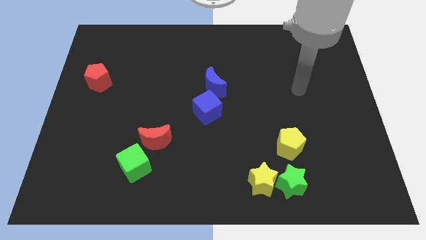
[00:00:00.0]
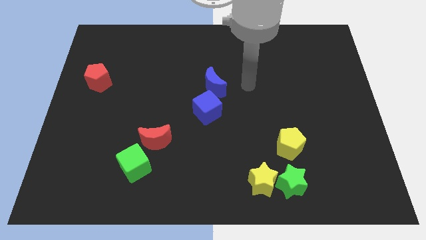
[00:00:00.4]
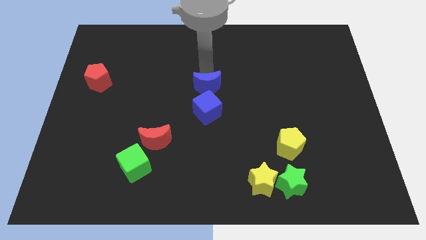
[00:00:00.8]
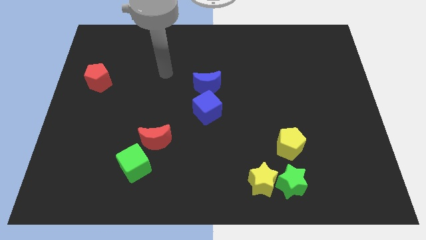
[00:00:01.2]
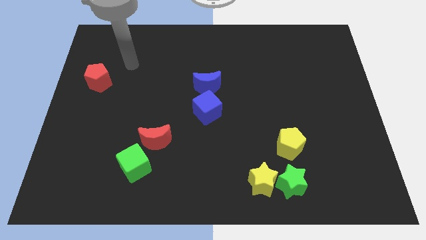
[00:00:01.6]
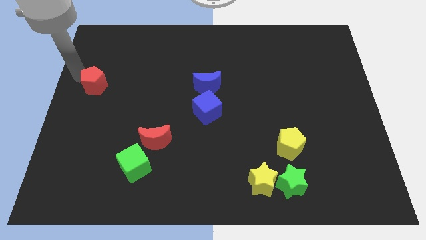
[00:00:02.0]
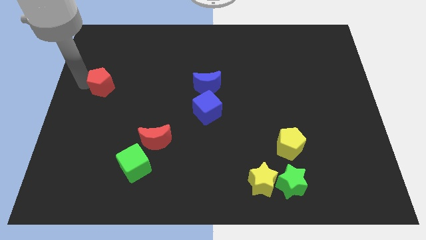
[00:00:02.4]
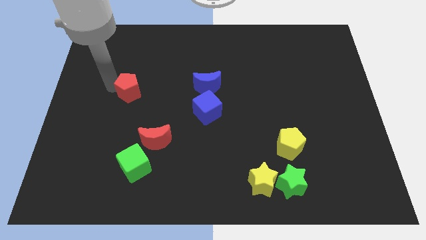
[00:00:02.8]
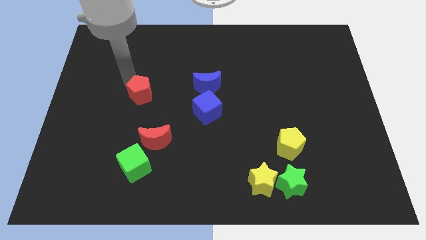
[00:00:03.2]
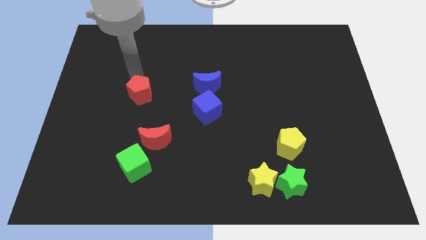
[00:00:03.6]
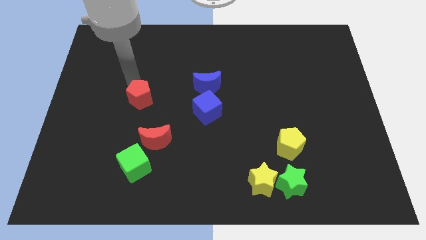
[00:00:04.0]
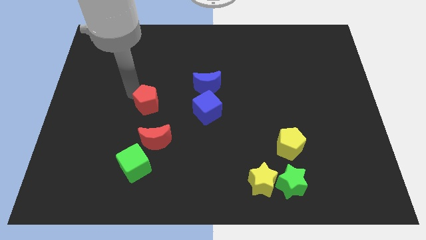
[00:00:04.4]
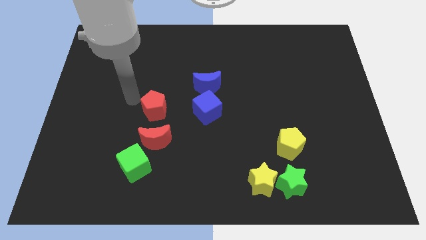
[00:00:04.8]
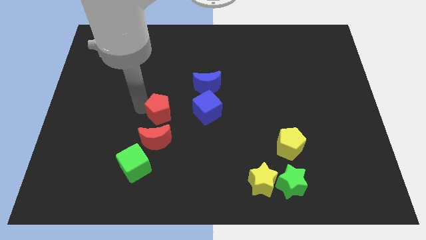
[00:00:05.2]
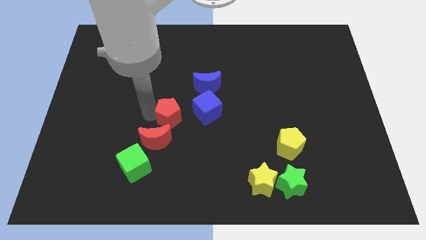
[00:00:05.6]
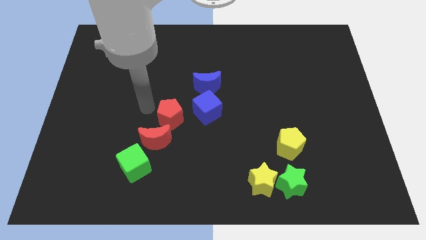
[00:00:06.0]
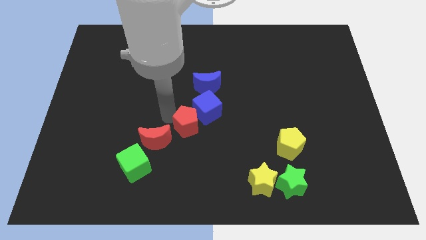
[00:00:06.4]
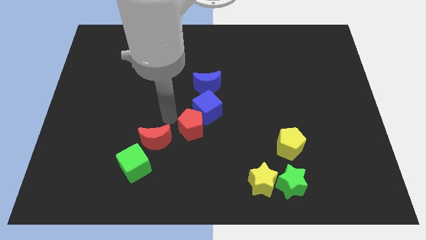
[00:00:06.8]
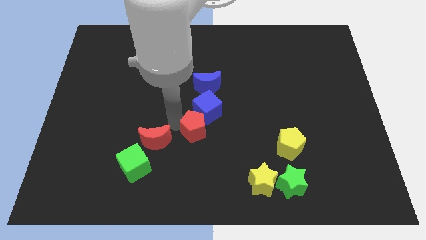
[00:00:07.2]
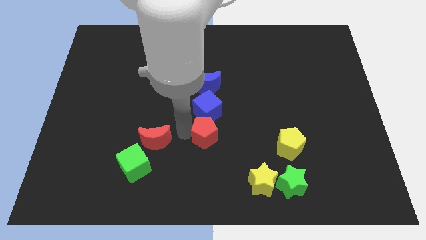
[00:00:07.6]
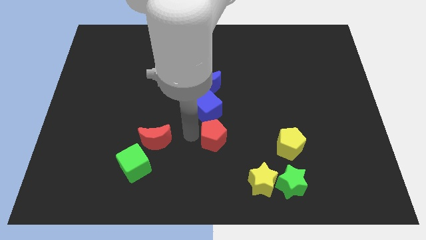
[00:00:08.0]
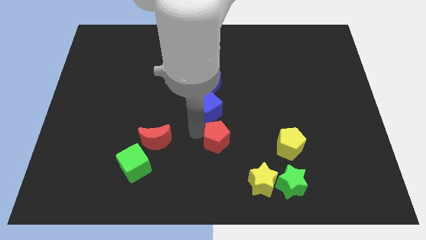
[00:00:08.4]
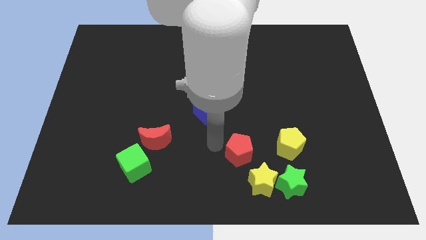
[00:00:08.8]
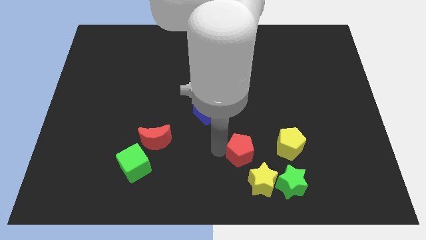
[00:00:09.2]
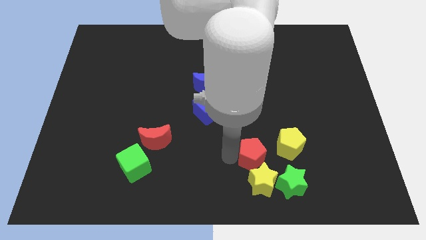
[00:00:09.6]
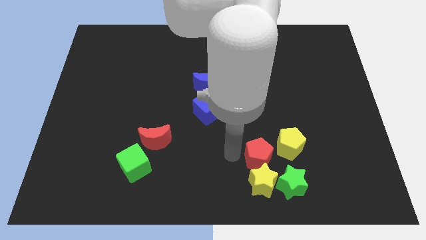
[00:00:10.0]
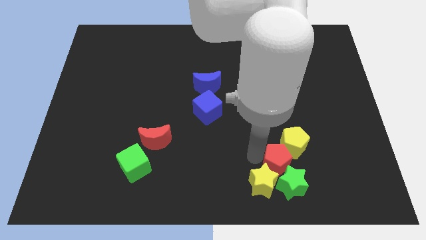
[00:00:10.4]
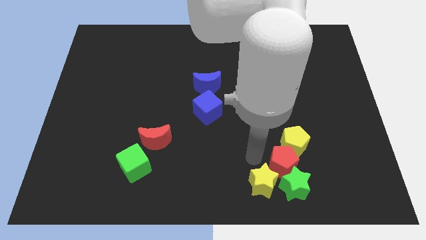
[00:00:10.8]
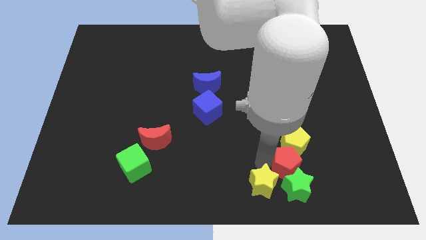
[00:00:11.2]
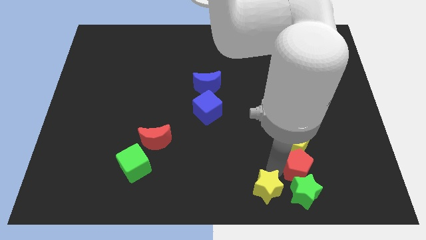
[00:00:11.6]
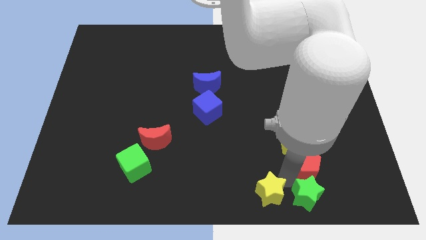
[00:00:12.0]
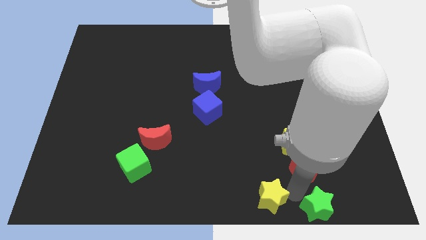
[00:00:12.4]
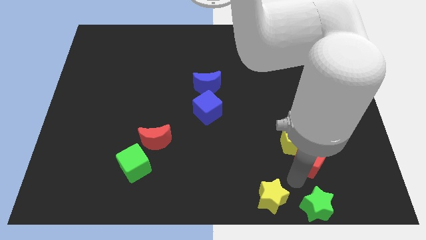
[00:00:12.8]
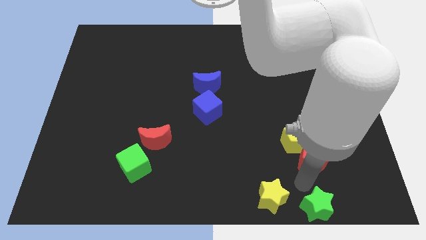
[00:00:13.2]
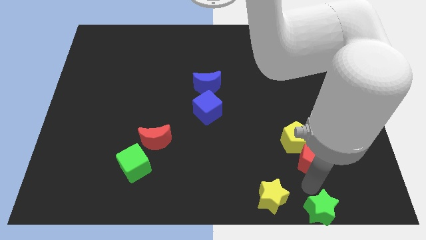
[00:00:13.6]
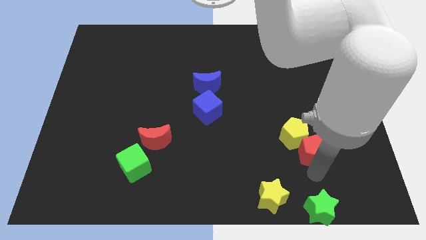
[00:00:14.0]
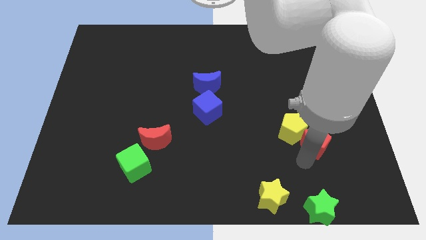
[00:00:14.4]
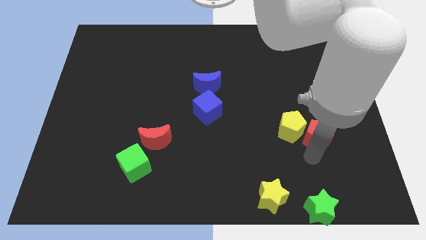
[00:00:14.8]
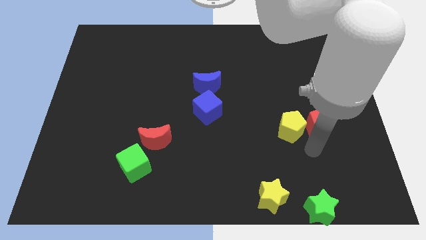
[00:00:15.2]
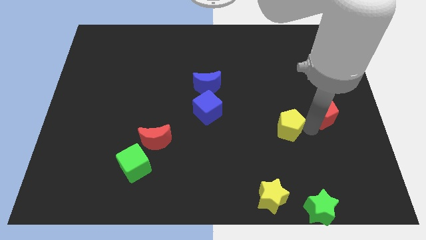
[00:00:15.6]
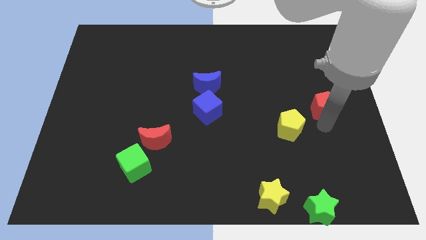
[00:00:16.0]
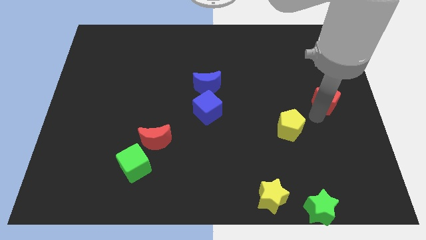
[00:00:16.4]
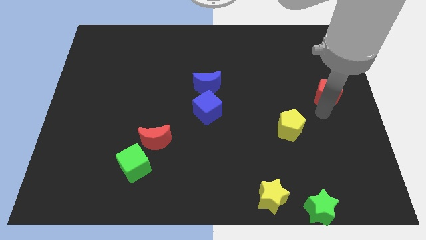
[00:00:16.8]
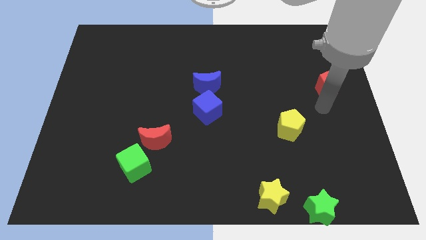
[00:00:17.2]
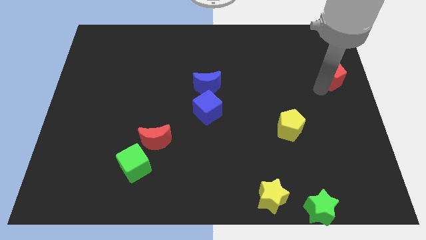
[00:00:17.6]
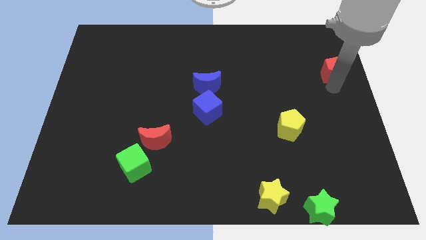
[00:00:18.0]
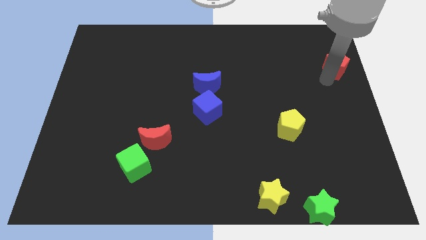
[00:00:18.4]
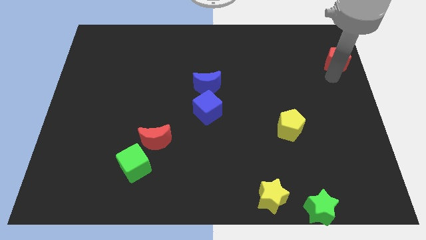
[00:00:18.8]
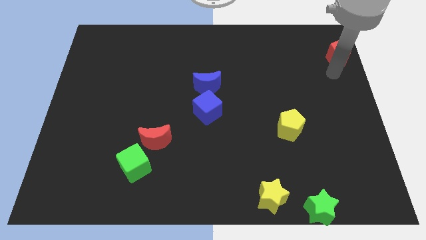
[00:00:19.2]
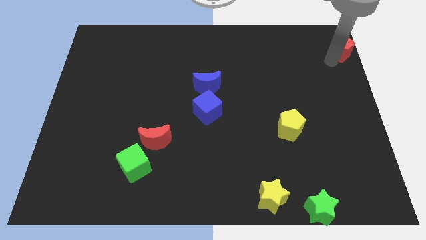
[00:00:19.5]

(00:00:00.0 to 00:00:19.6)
put the red pentagon to the top right of the board

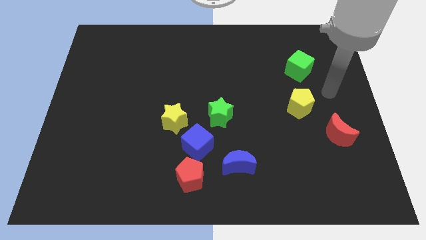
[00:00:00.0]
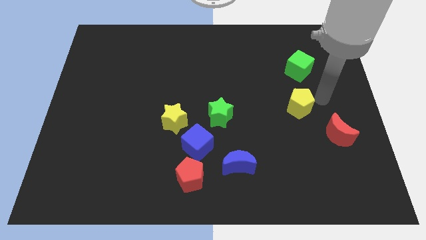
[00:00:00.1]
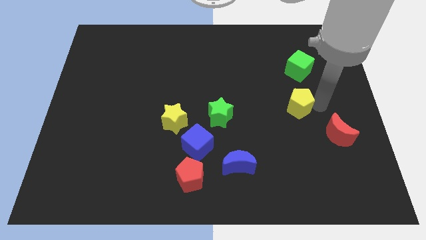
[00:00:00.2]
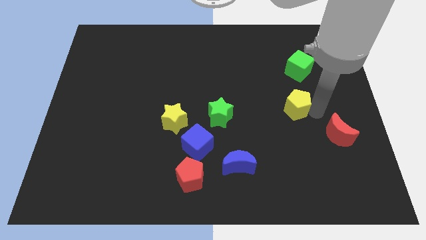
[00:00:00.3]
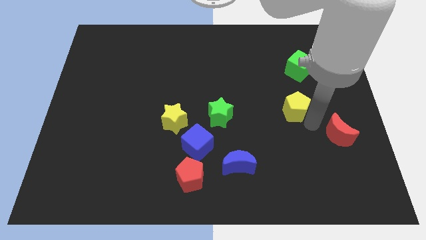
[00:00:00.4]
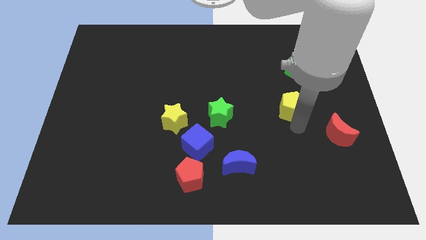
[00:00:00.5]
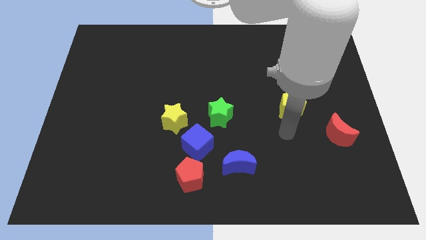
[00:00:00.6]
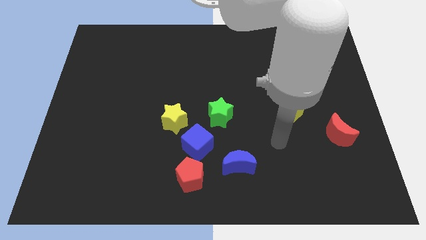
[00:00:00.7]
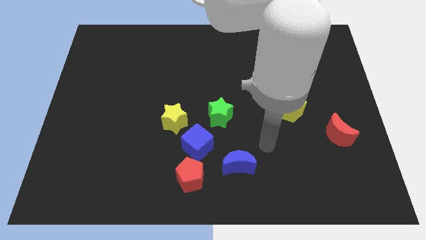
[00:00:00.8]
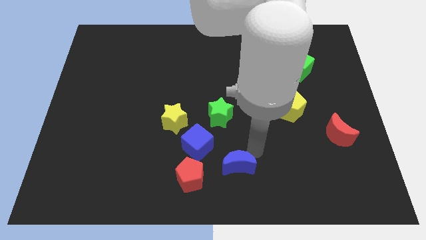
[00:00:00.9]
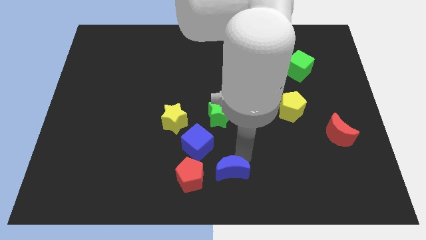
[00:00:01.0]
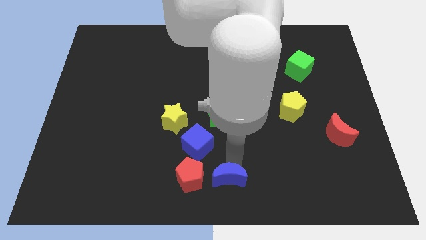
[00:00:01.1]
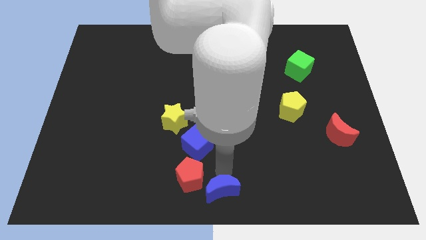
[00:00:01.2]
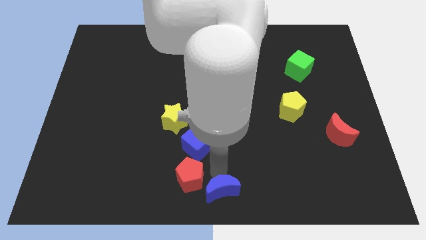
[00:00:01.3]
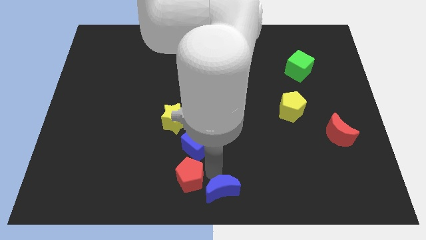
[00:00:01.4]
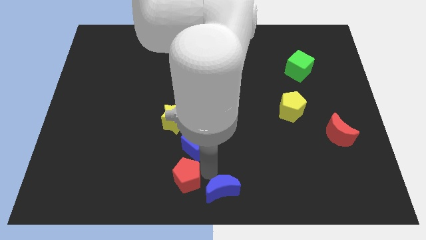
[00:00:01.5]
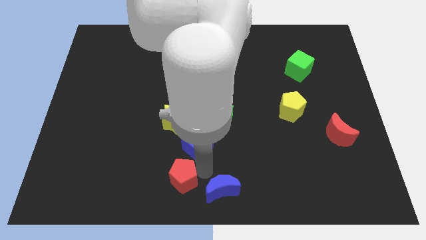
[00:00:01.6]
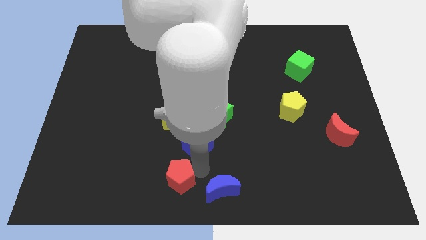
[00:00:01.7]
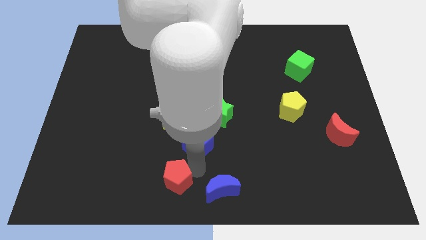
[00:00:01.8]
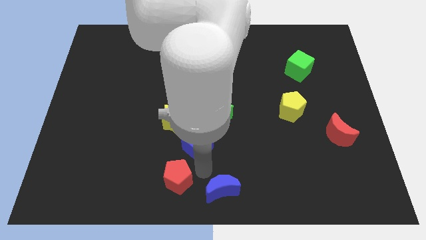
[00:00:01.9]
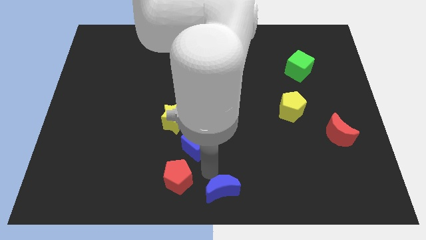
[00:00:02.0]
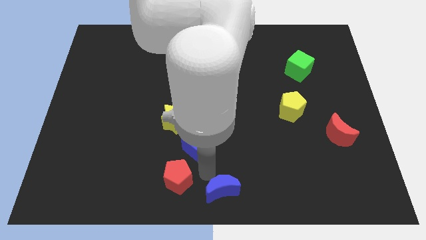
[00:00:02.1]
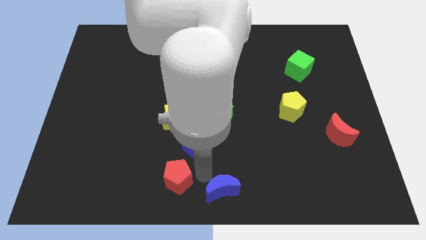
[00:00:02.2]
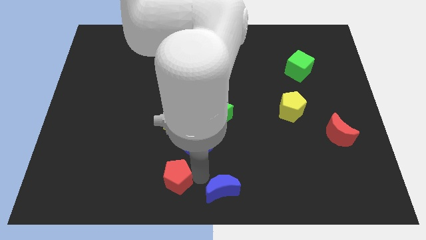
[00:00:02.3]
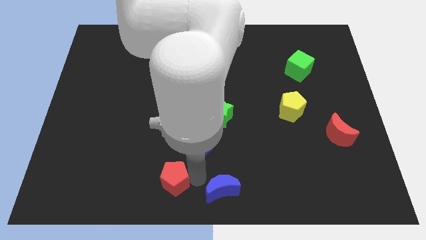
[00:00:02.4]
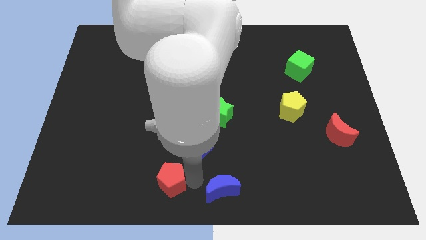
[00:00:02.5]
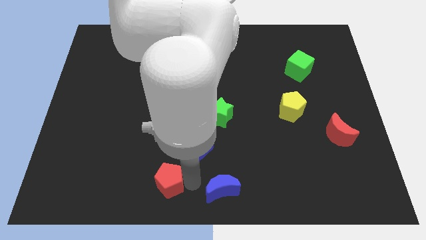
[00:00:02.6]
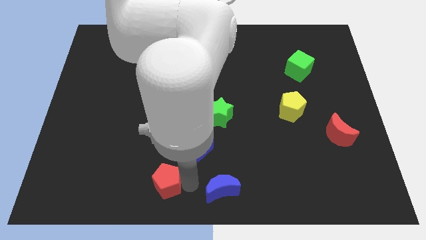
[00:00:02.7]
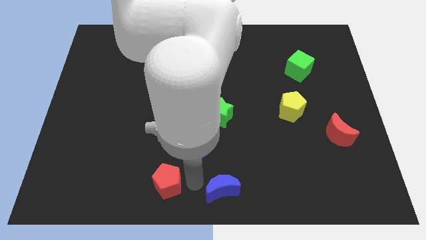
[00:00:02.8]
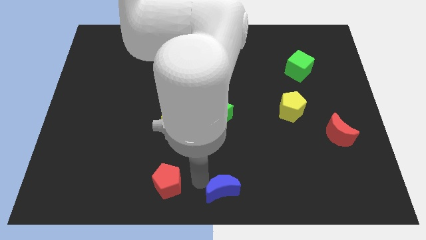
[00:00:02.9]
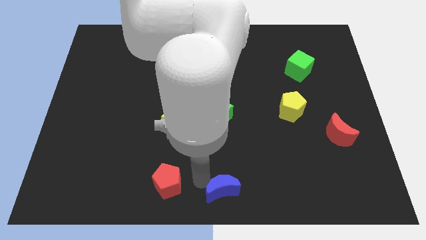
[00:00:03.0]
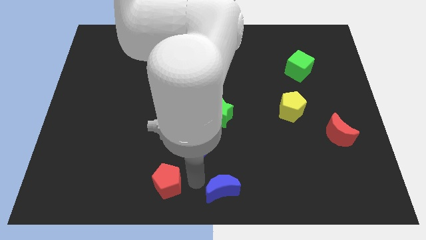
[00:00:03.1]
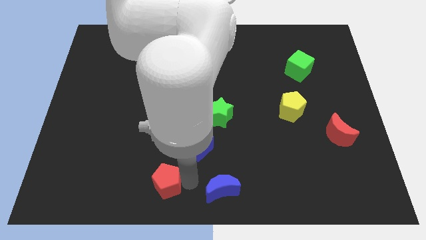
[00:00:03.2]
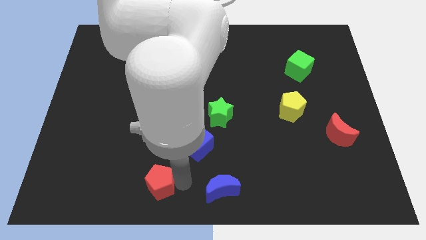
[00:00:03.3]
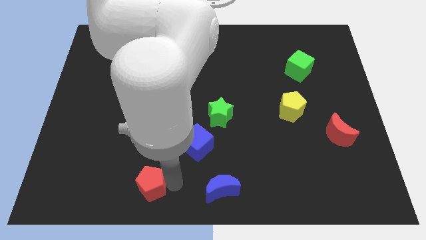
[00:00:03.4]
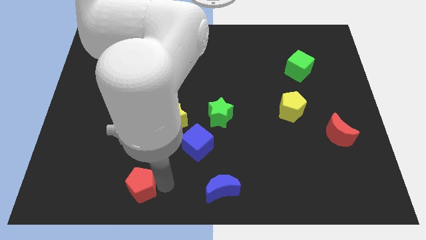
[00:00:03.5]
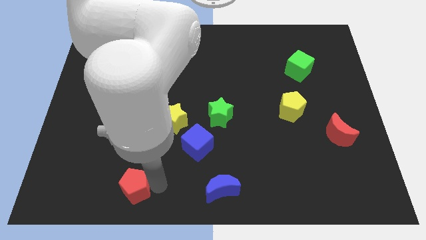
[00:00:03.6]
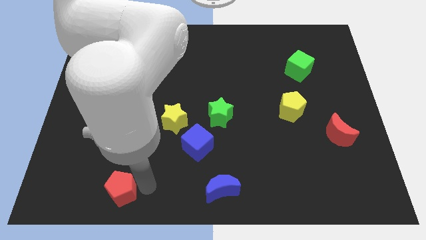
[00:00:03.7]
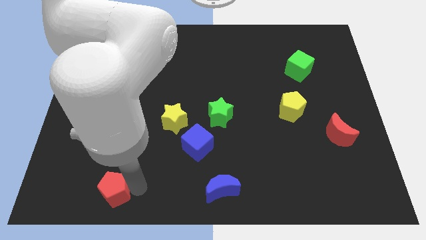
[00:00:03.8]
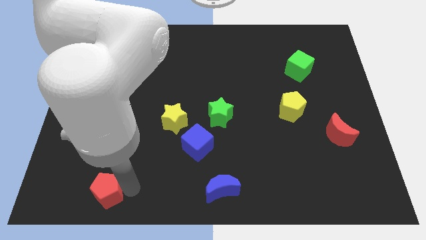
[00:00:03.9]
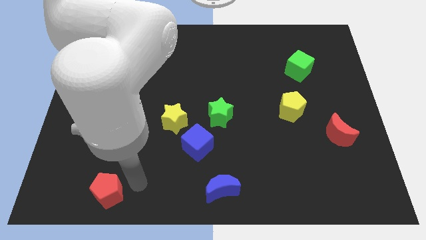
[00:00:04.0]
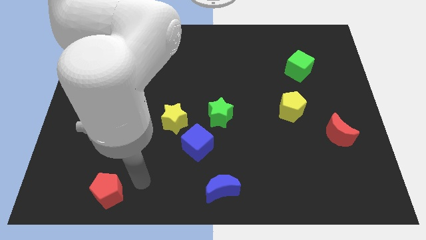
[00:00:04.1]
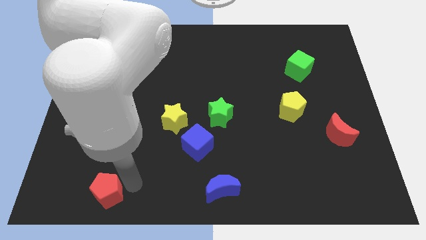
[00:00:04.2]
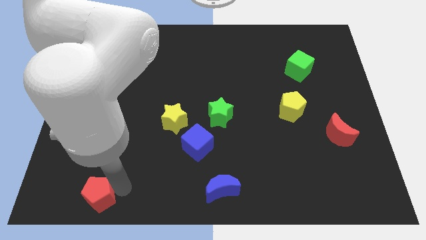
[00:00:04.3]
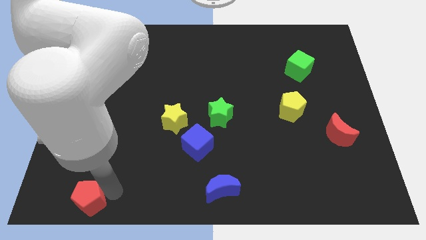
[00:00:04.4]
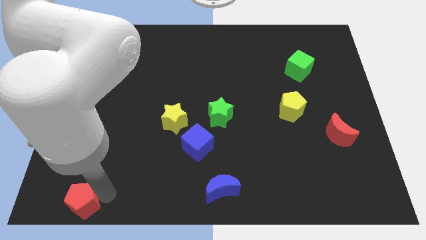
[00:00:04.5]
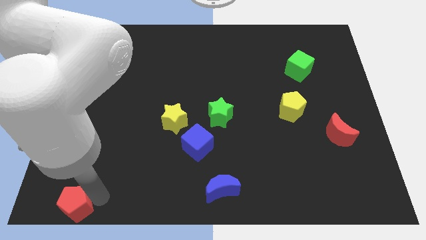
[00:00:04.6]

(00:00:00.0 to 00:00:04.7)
put the red pentagon to the lower left corner
